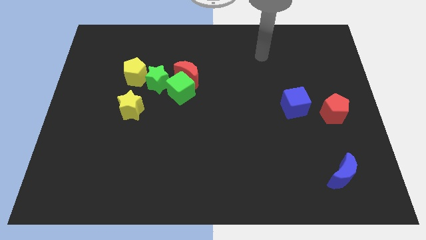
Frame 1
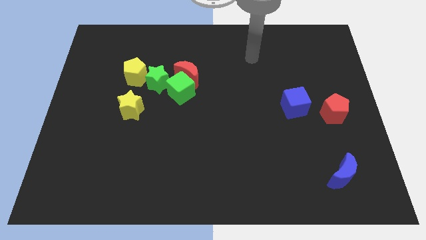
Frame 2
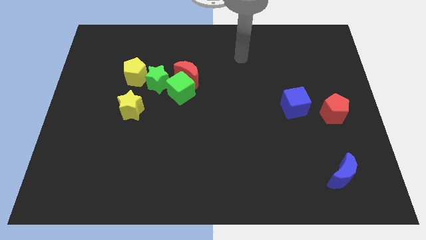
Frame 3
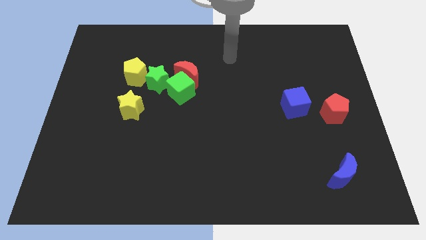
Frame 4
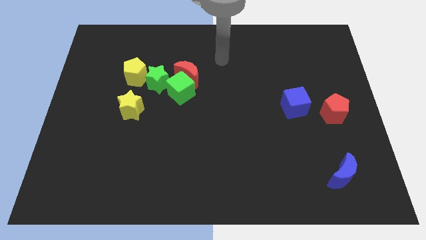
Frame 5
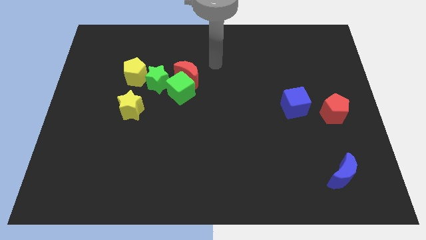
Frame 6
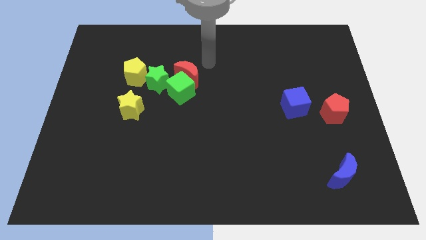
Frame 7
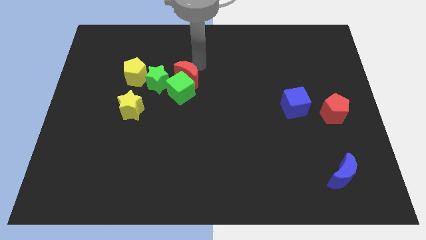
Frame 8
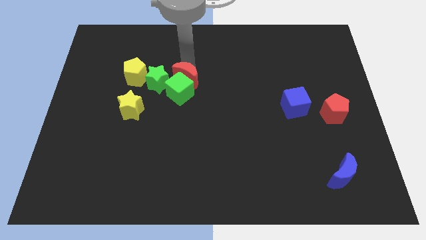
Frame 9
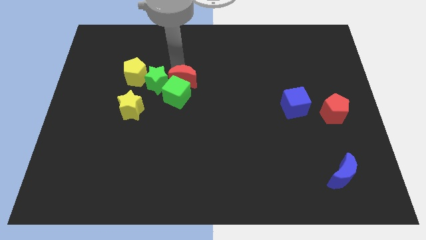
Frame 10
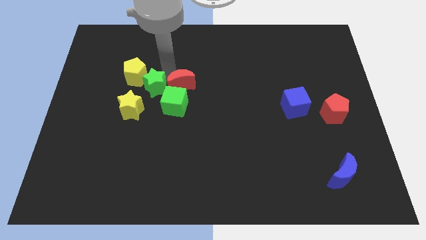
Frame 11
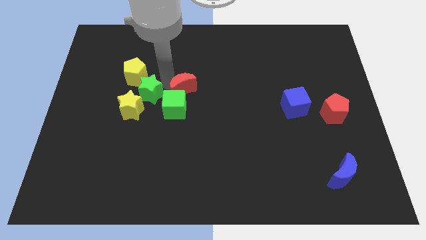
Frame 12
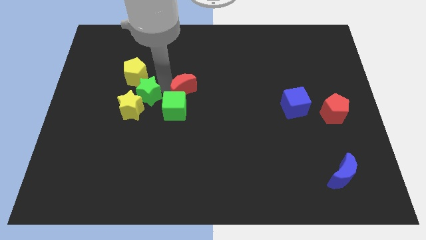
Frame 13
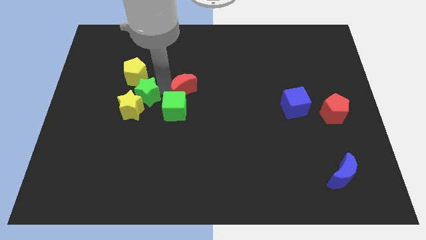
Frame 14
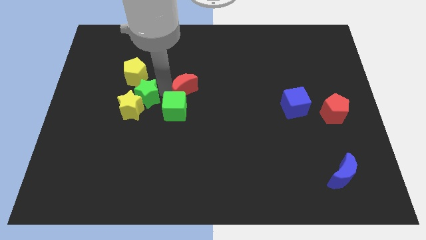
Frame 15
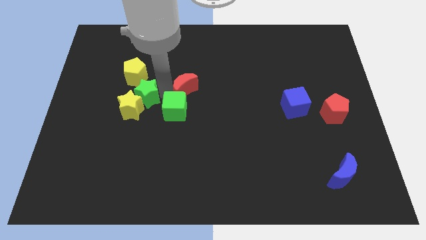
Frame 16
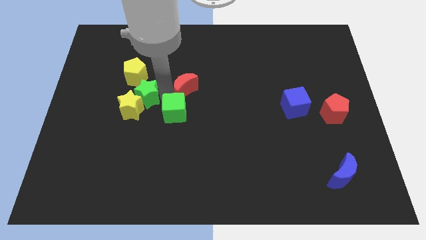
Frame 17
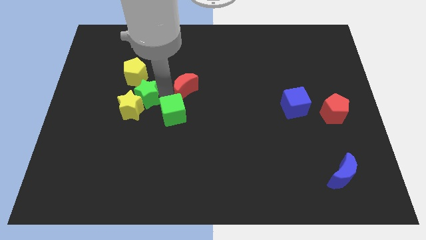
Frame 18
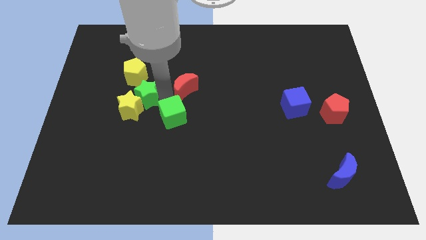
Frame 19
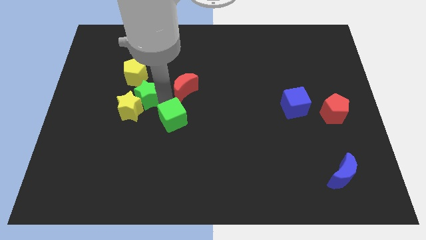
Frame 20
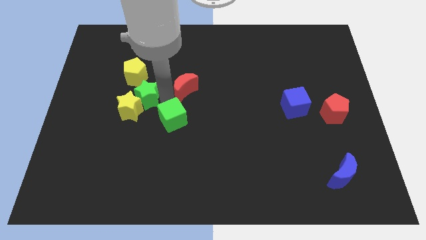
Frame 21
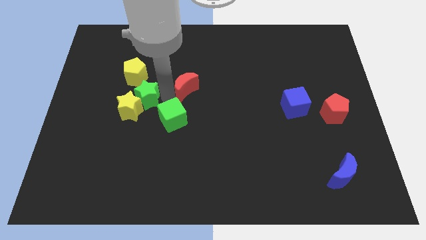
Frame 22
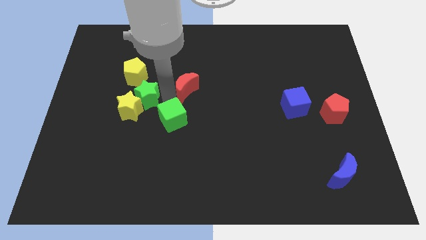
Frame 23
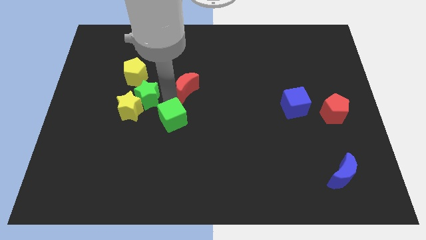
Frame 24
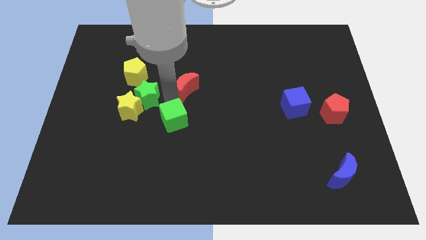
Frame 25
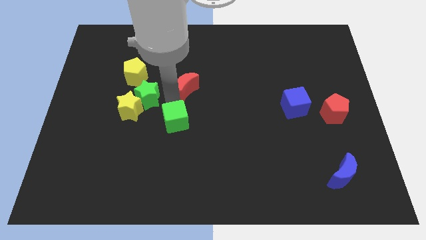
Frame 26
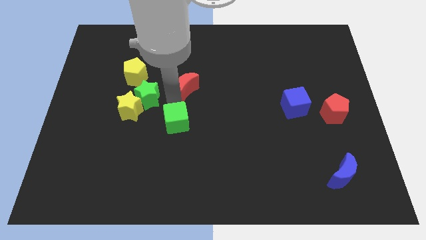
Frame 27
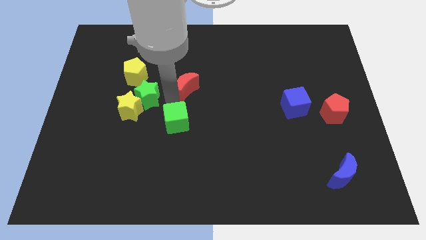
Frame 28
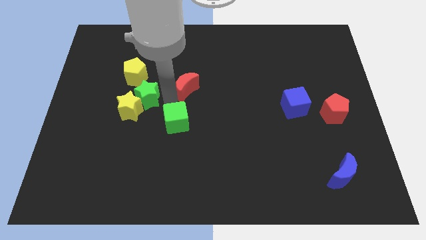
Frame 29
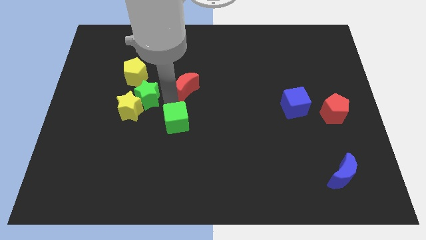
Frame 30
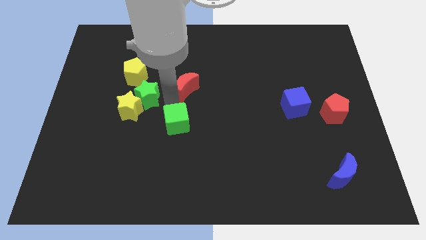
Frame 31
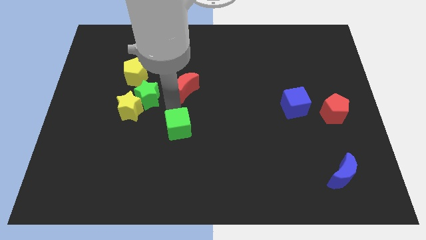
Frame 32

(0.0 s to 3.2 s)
move the green cube away from the red moon and green star

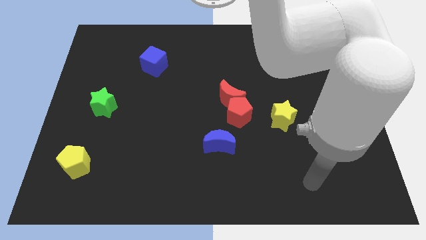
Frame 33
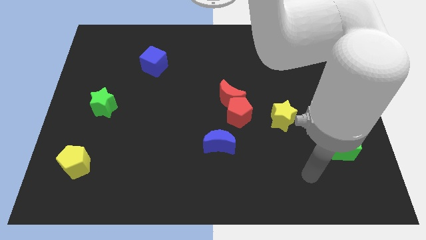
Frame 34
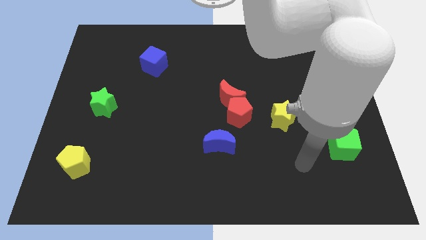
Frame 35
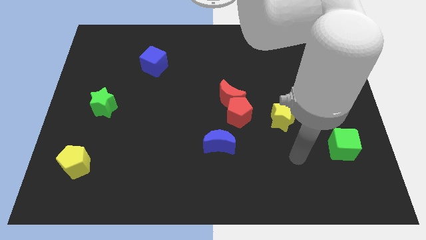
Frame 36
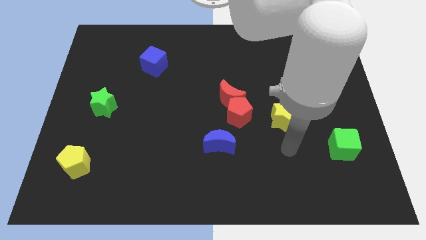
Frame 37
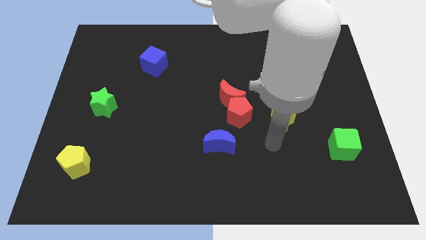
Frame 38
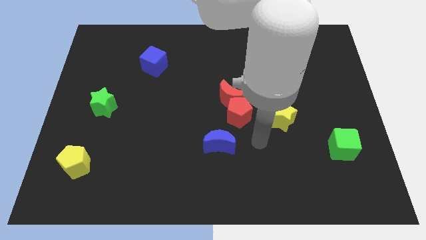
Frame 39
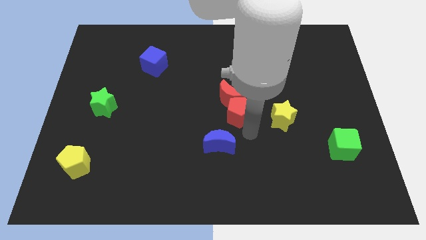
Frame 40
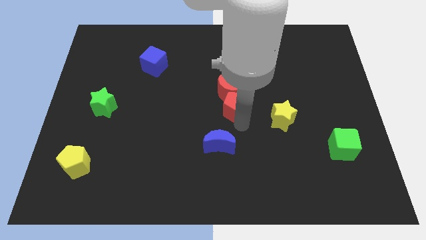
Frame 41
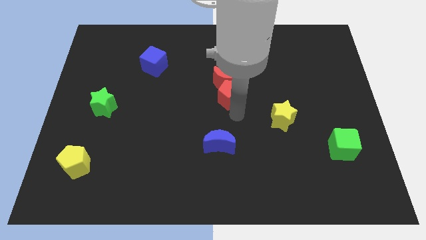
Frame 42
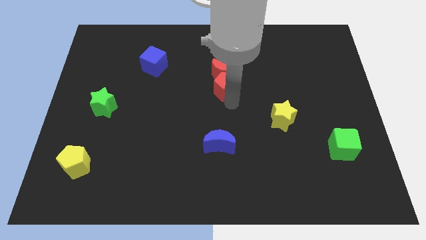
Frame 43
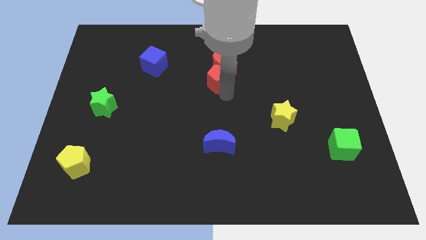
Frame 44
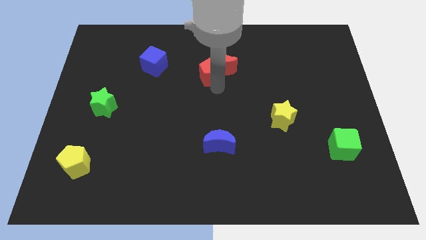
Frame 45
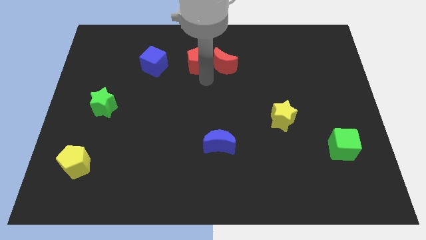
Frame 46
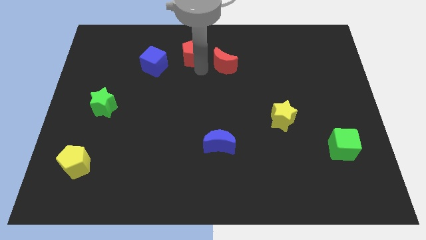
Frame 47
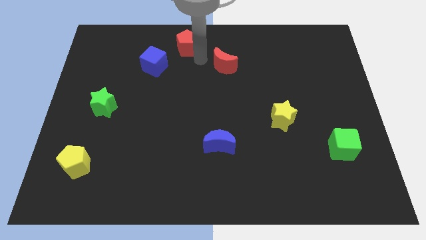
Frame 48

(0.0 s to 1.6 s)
move the red moon away from the red pentagon

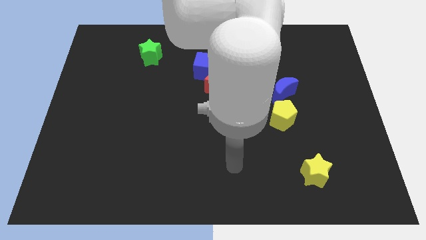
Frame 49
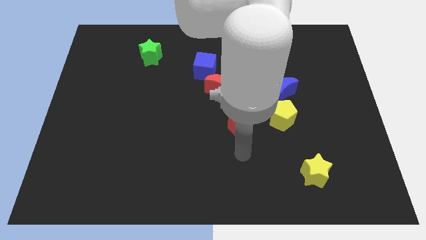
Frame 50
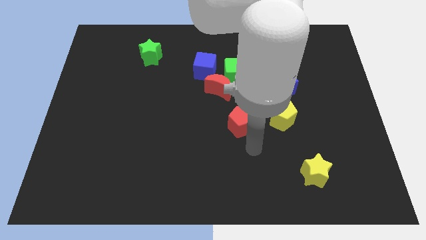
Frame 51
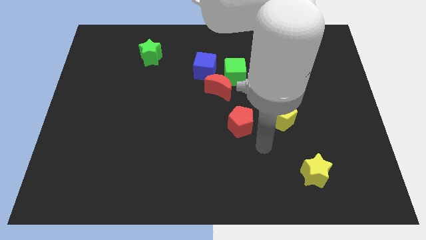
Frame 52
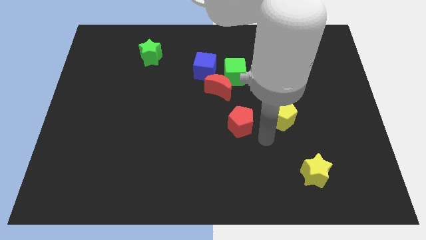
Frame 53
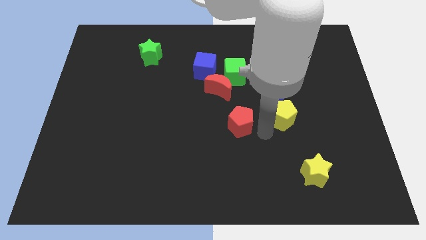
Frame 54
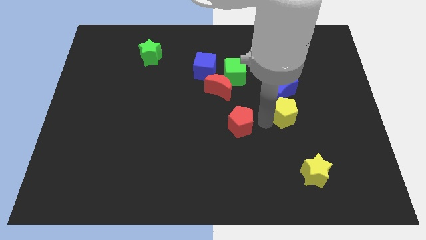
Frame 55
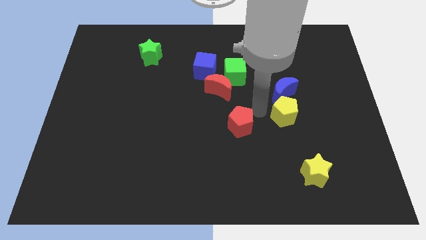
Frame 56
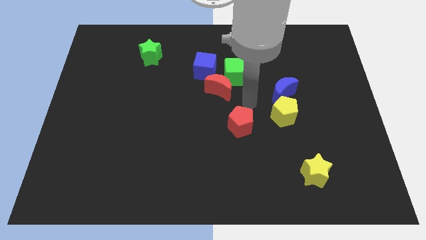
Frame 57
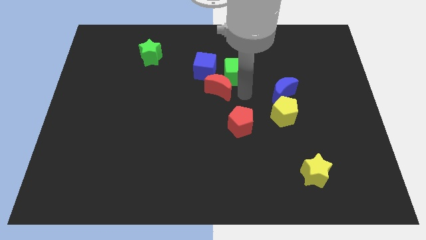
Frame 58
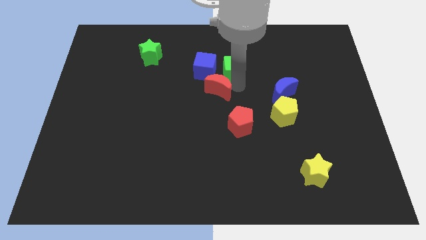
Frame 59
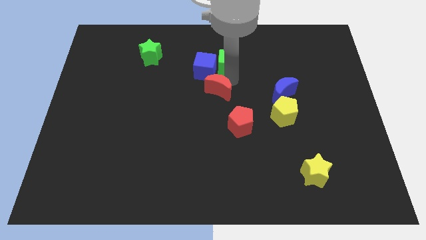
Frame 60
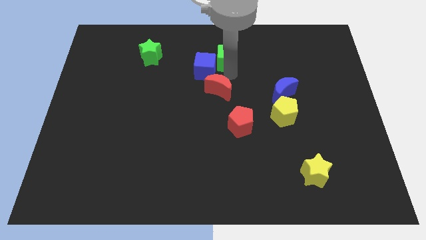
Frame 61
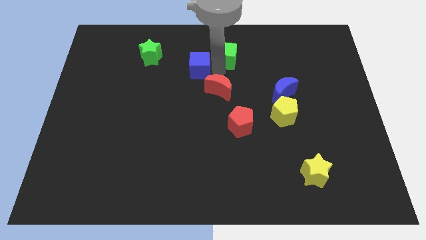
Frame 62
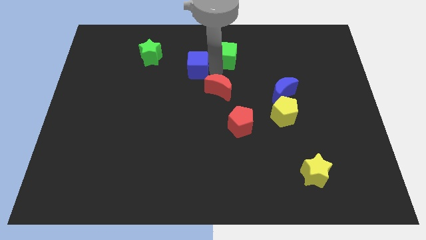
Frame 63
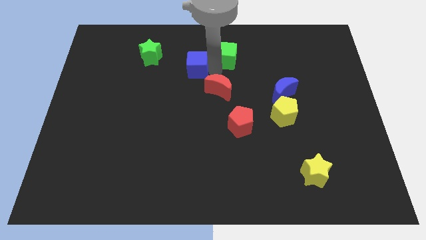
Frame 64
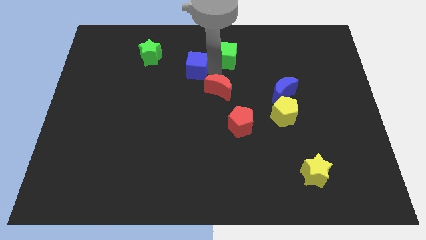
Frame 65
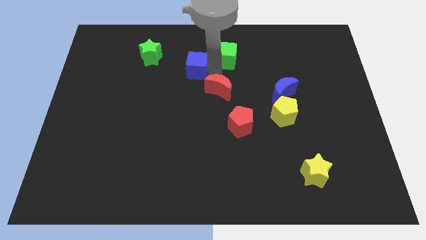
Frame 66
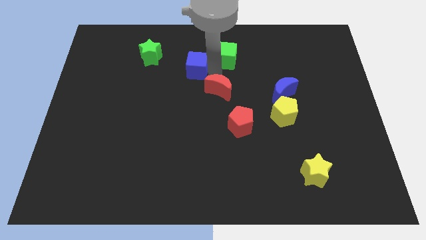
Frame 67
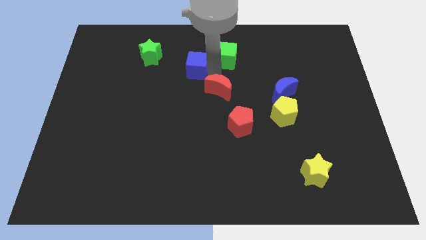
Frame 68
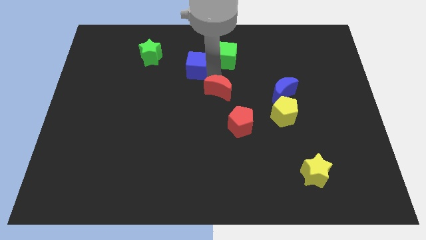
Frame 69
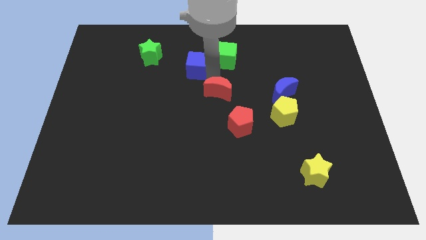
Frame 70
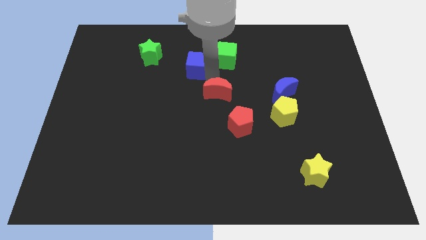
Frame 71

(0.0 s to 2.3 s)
separate the red moon from the green cube and blue cube

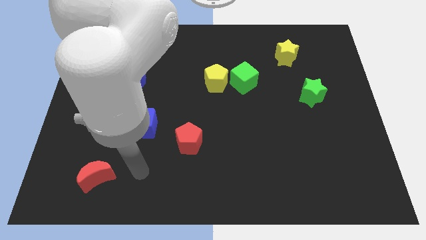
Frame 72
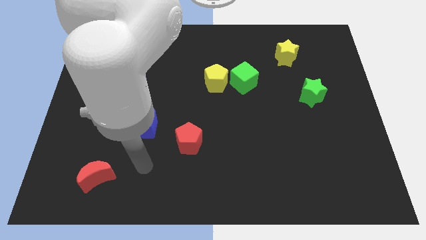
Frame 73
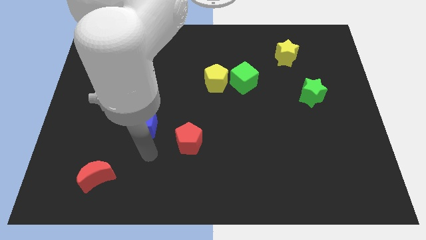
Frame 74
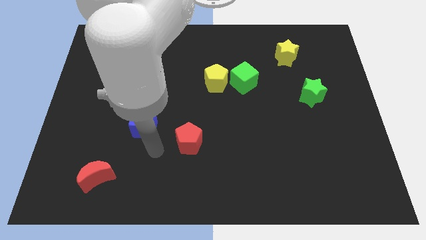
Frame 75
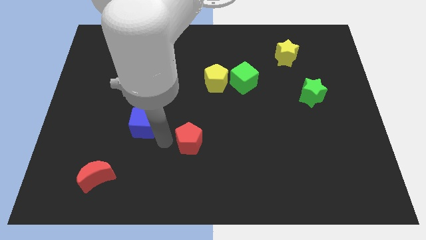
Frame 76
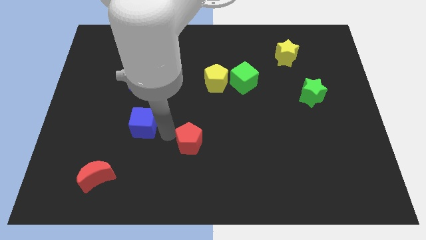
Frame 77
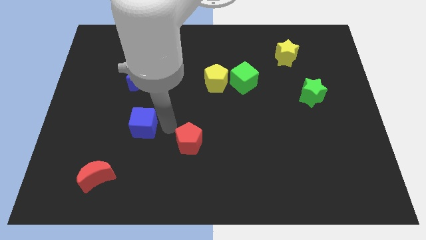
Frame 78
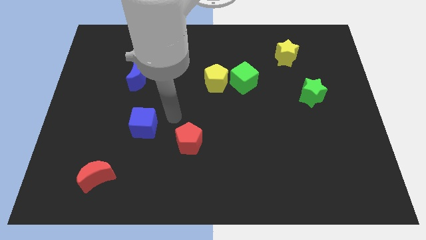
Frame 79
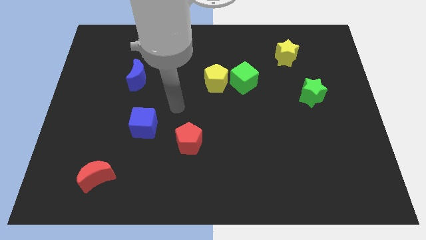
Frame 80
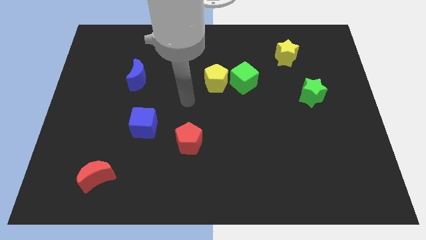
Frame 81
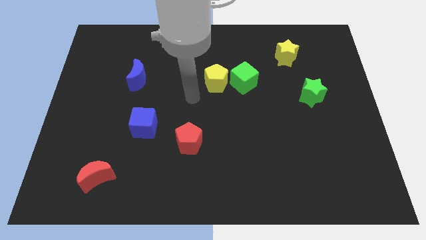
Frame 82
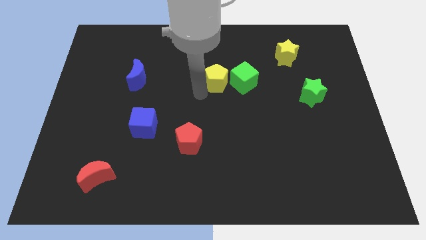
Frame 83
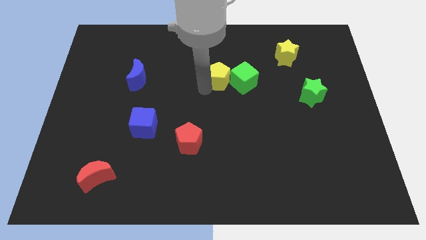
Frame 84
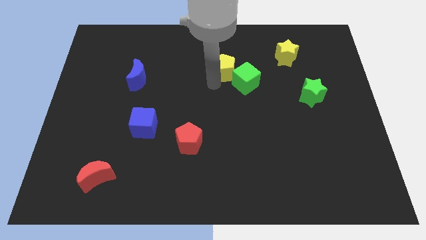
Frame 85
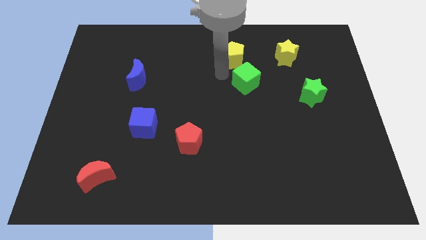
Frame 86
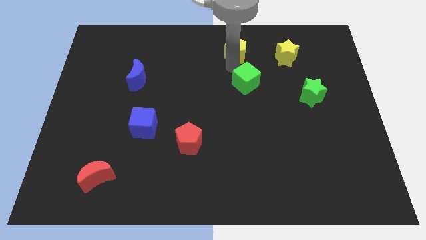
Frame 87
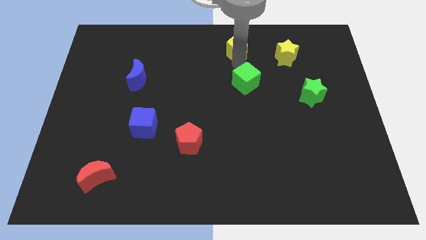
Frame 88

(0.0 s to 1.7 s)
move the green cube away from the yellow pentagon

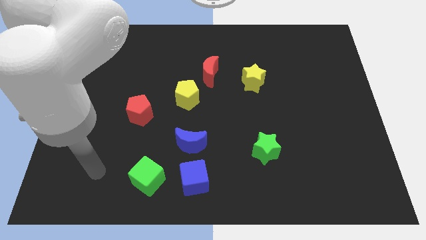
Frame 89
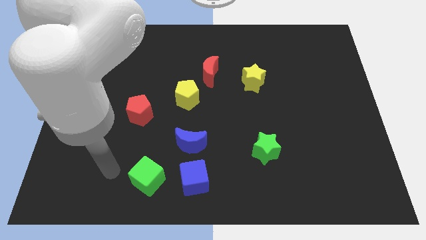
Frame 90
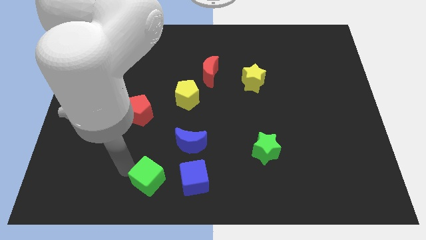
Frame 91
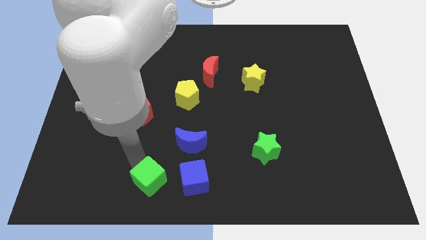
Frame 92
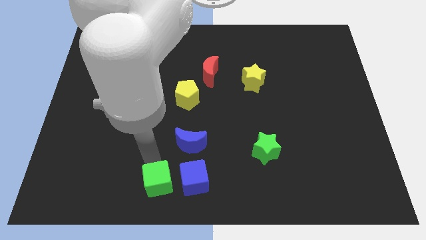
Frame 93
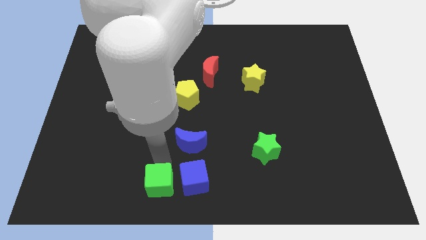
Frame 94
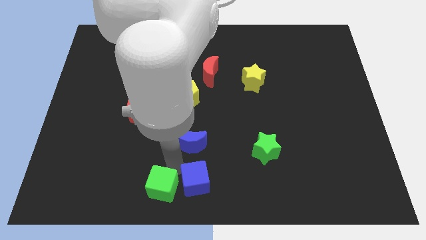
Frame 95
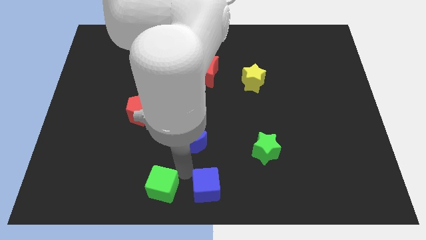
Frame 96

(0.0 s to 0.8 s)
pull the blue moon apart from the blue cube
